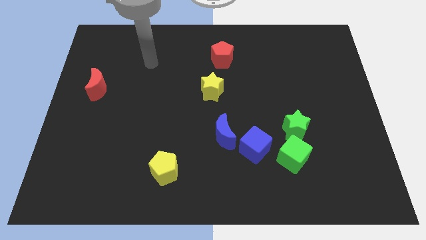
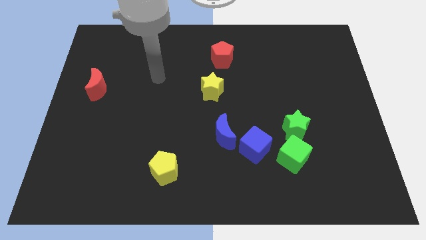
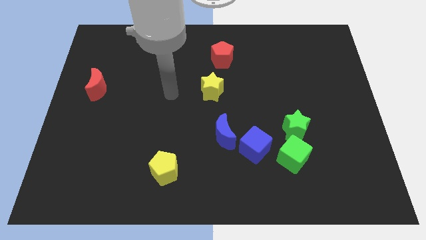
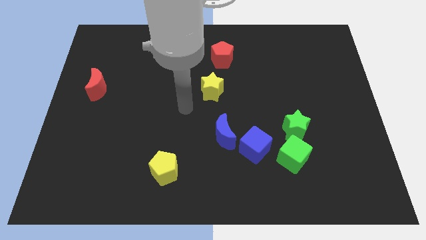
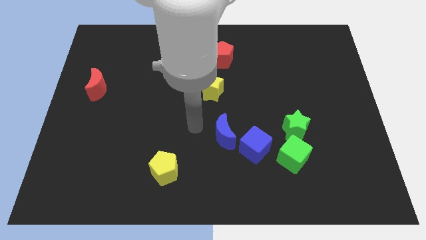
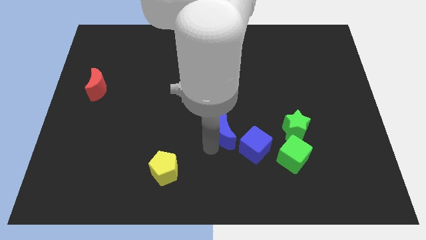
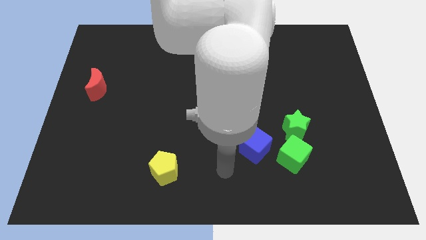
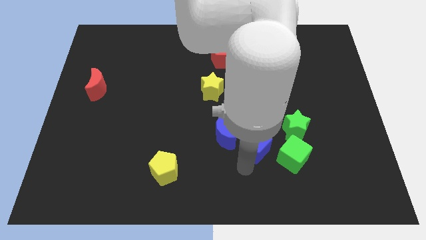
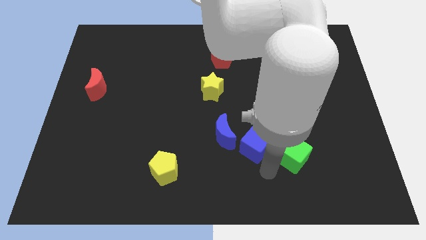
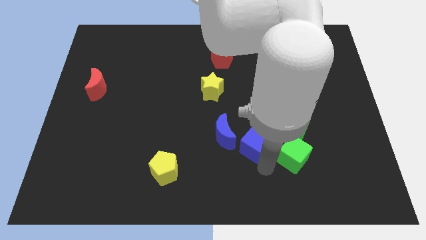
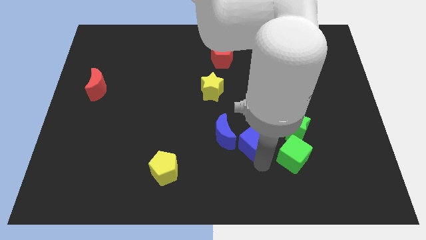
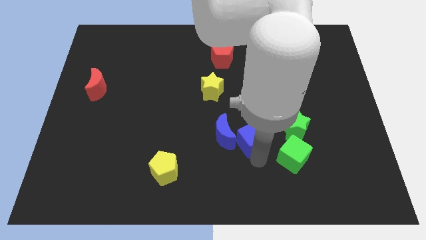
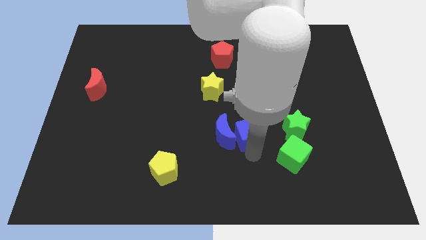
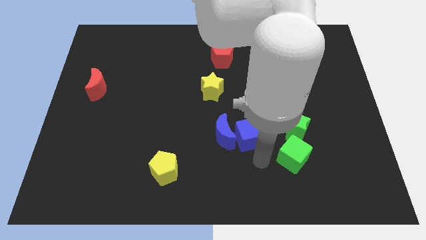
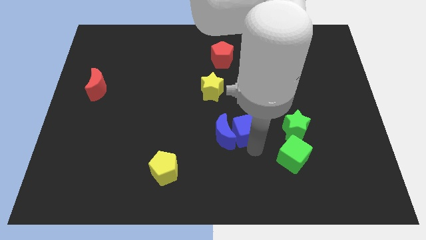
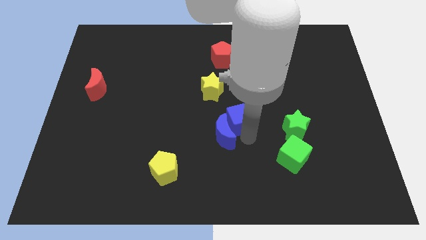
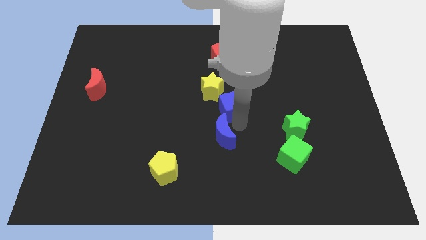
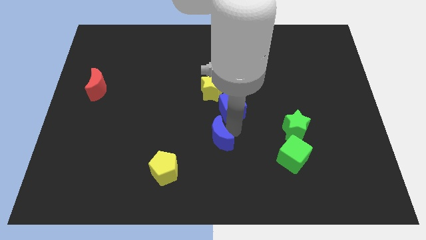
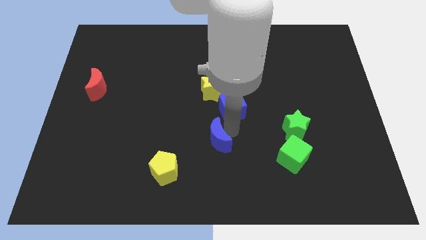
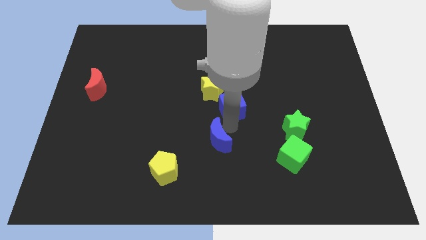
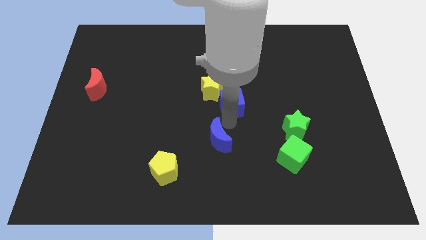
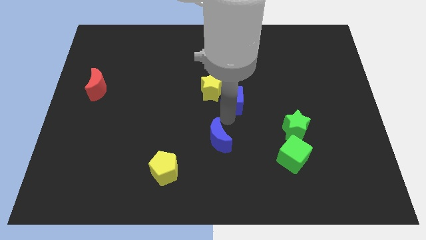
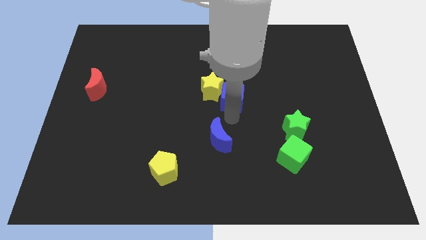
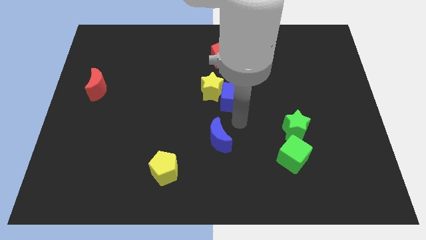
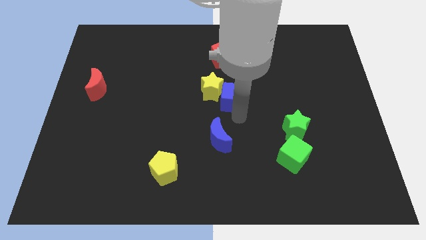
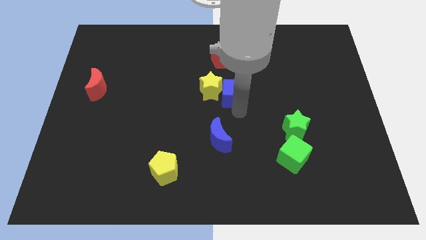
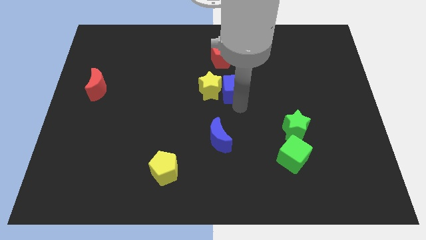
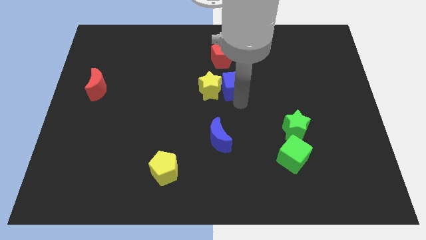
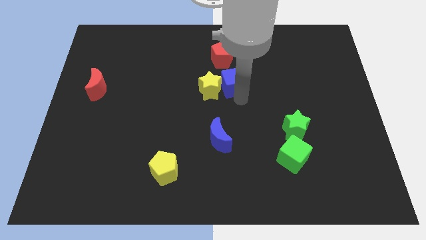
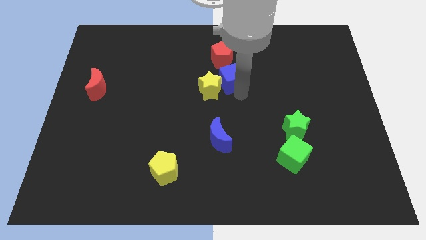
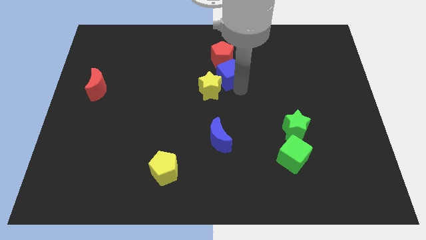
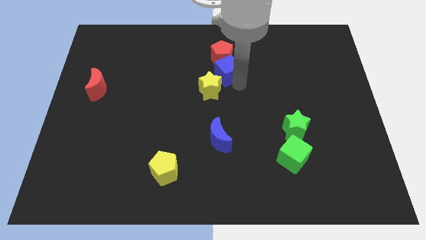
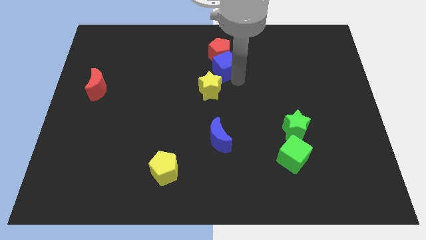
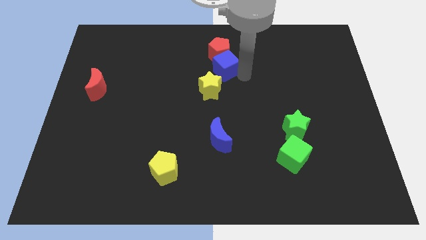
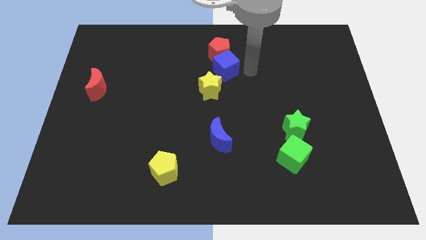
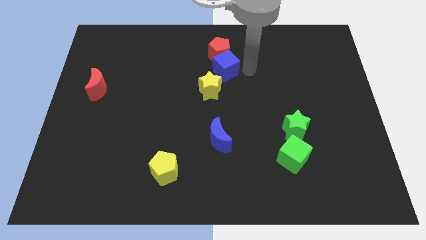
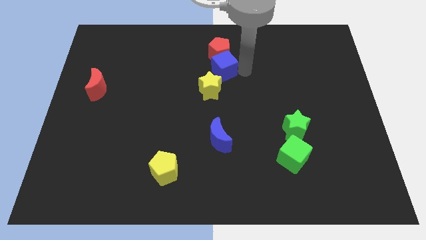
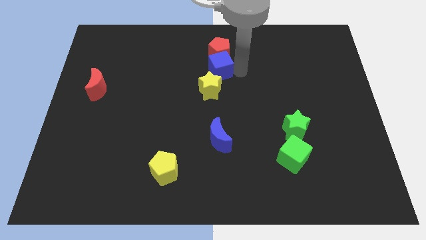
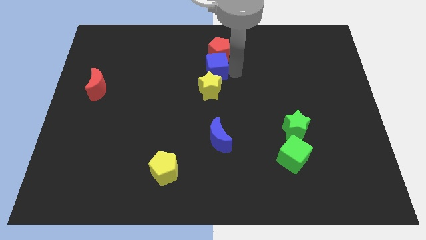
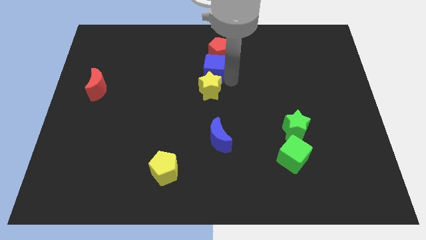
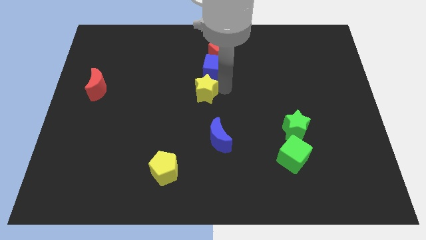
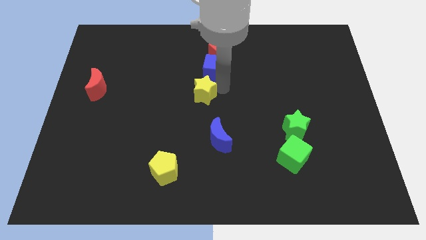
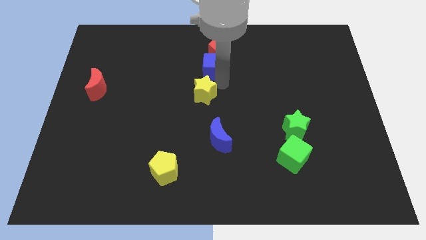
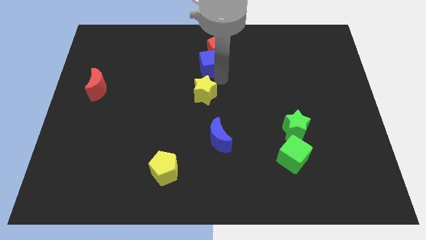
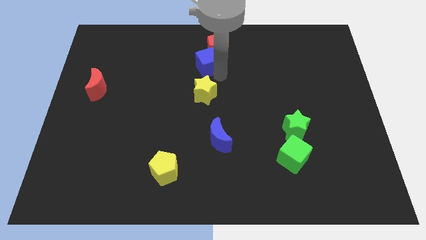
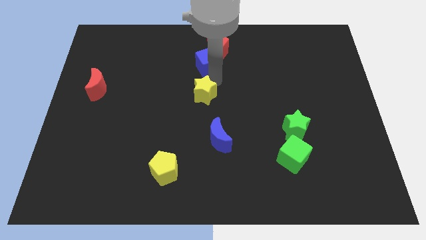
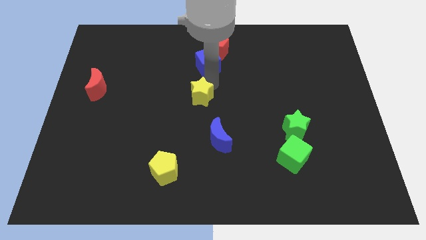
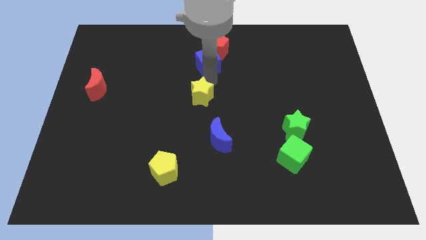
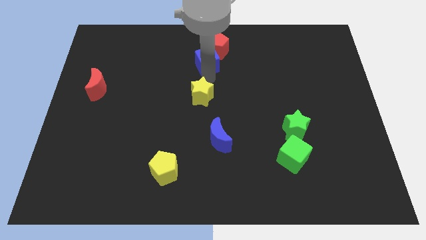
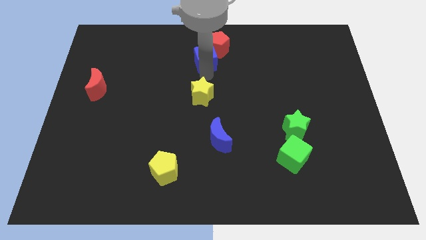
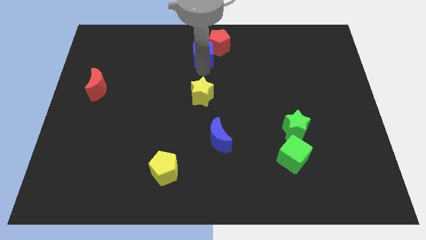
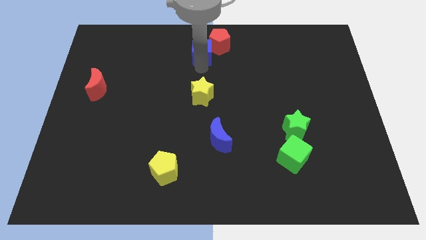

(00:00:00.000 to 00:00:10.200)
push the blue cube to the towards your base

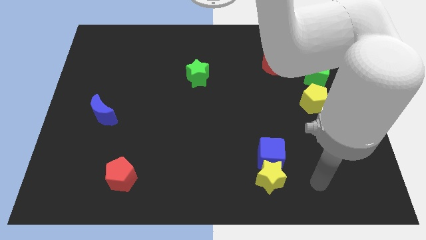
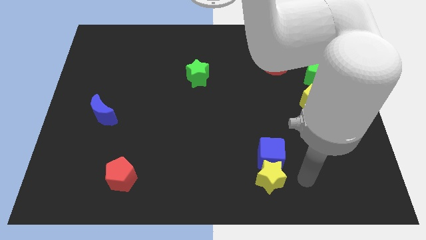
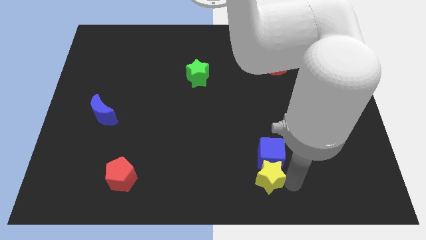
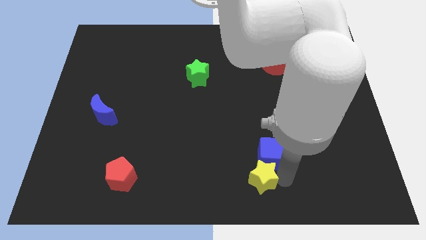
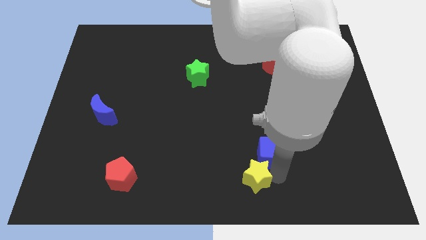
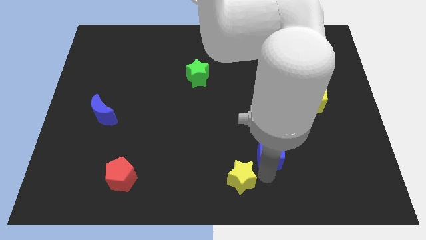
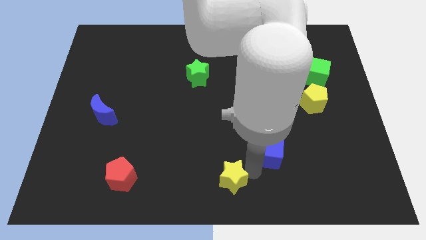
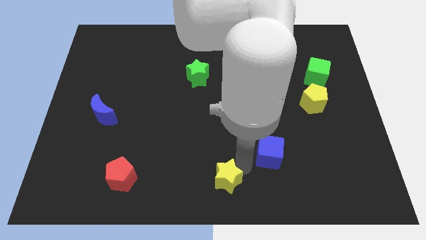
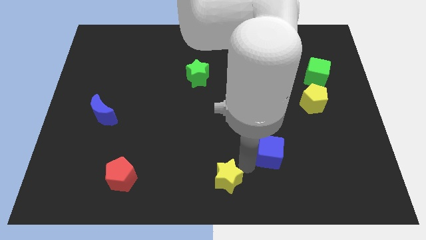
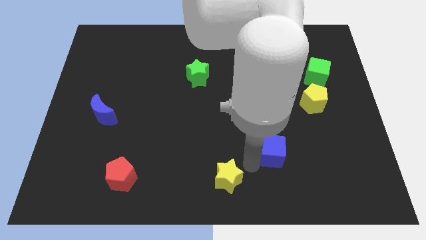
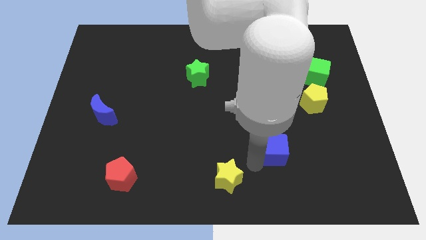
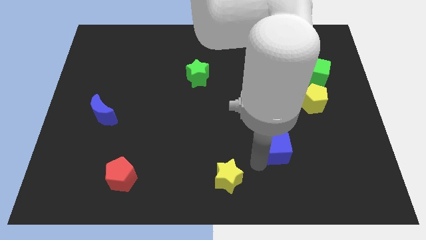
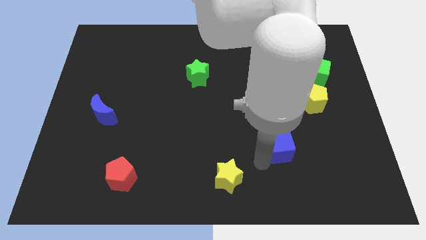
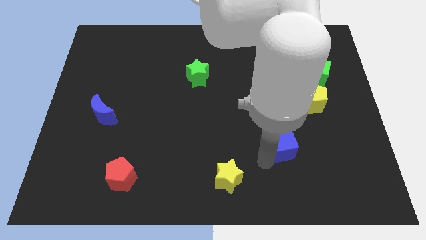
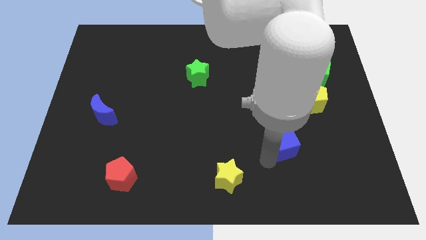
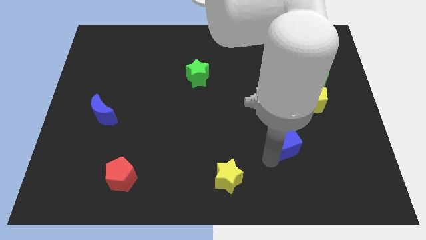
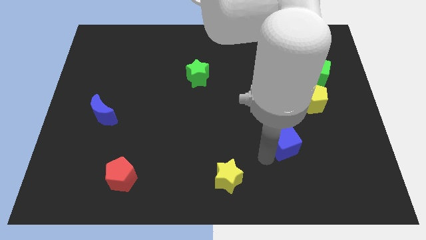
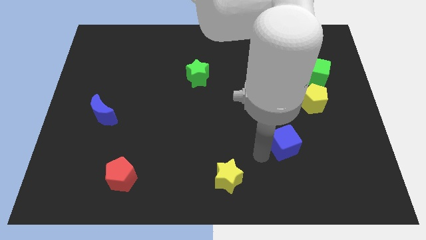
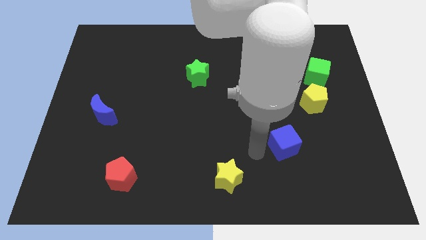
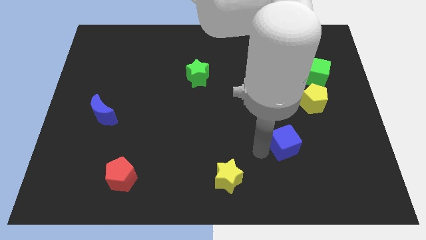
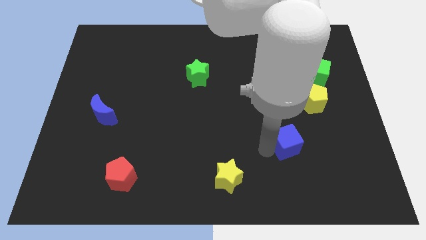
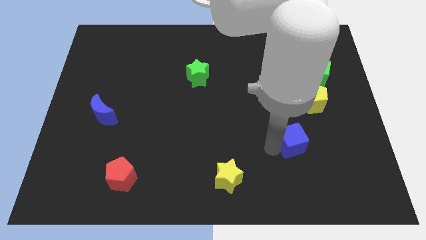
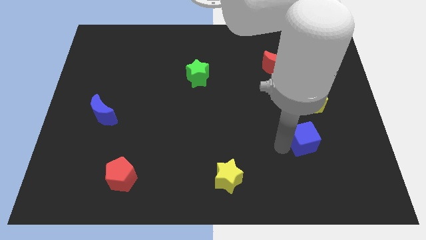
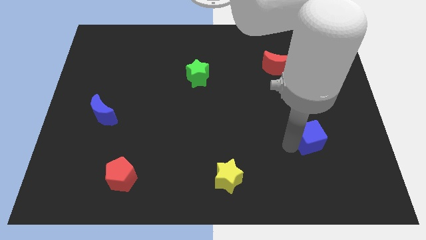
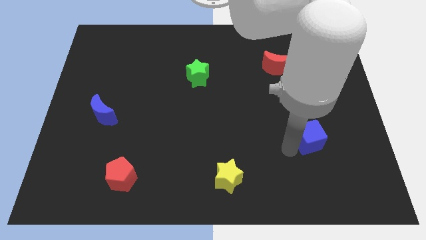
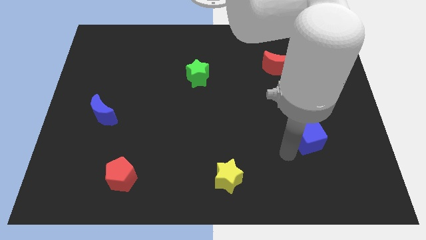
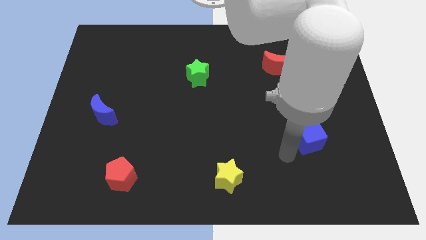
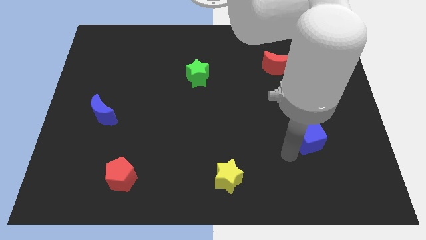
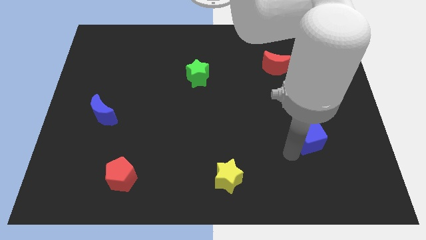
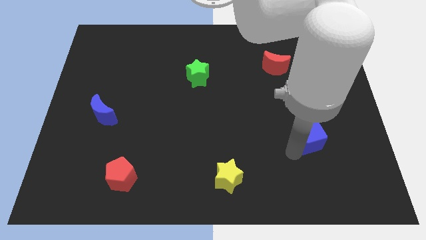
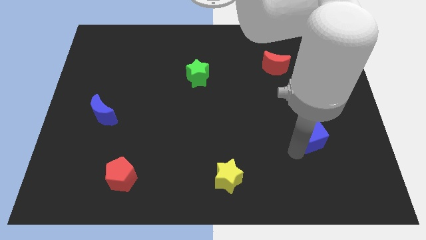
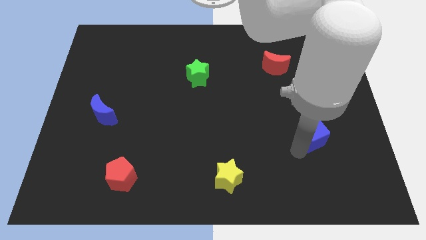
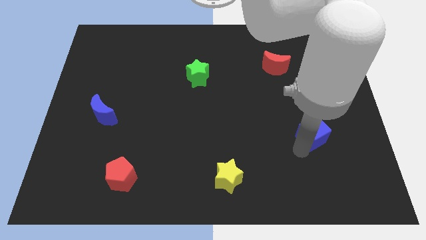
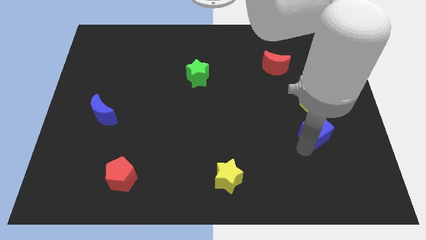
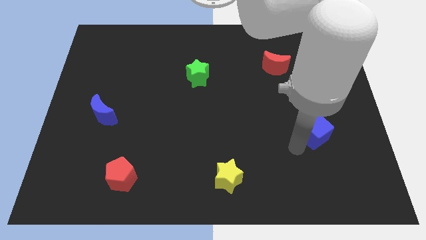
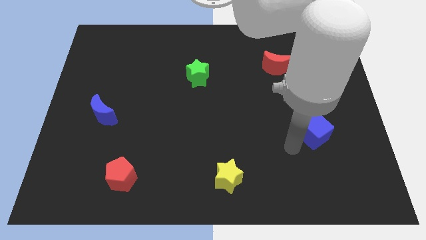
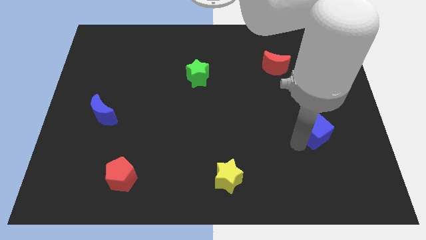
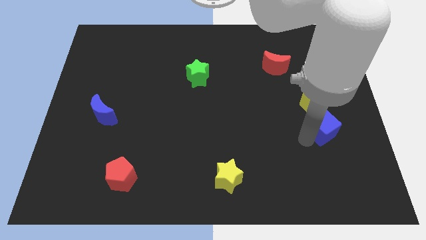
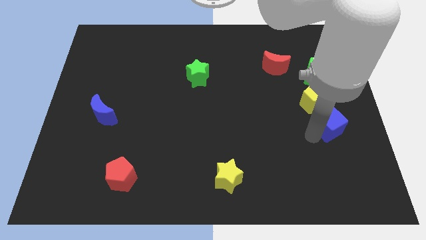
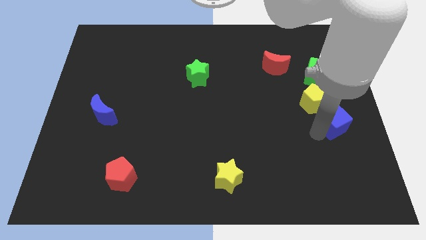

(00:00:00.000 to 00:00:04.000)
put the blue cube to the right side
